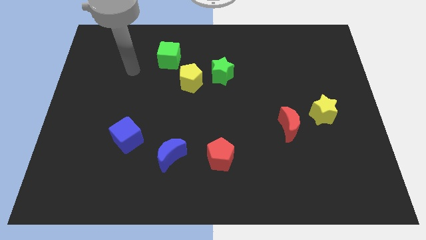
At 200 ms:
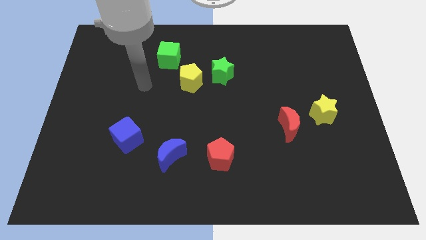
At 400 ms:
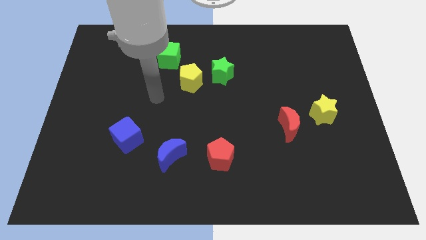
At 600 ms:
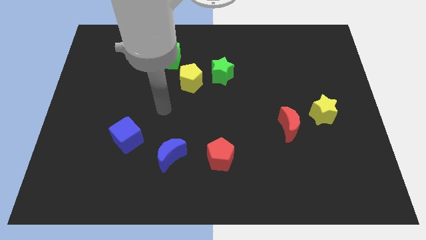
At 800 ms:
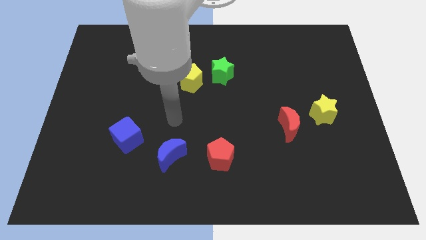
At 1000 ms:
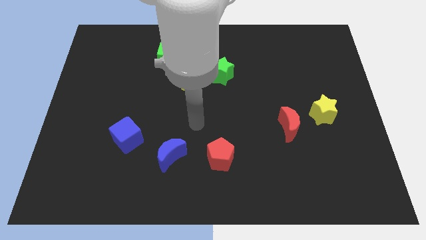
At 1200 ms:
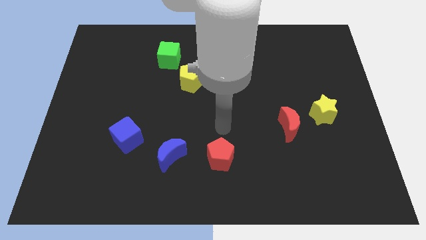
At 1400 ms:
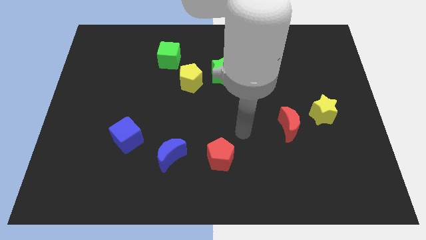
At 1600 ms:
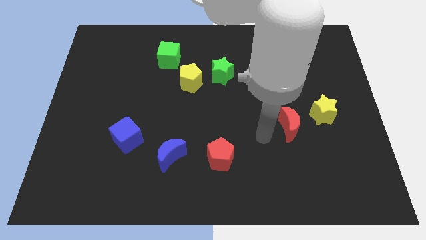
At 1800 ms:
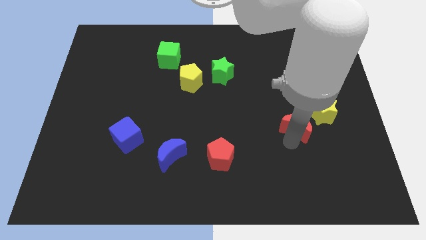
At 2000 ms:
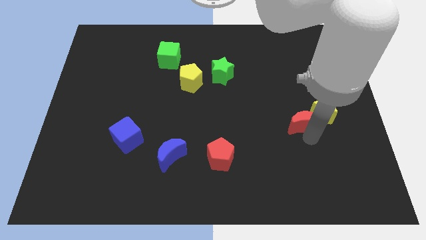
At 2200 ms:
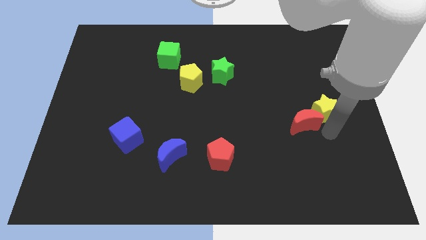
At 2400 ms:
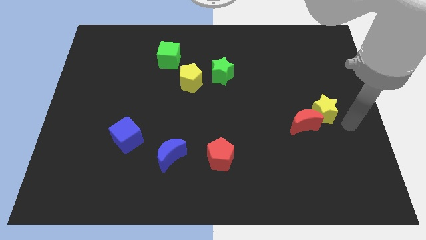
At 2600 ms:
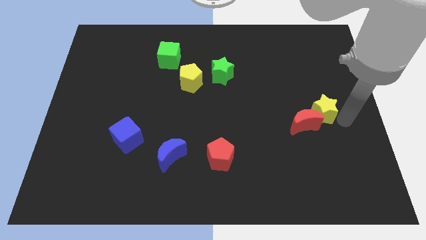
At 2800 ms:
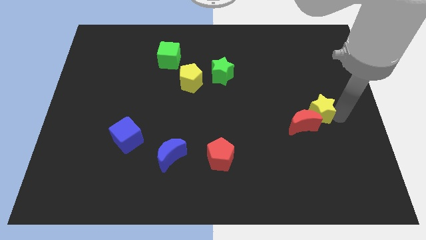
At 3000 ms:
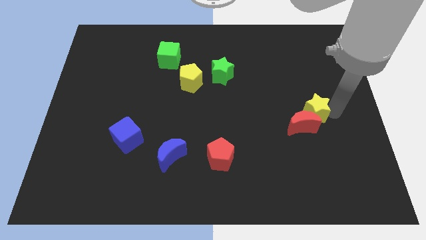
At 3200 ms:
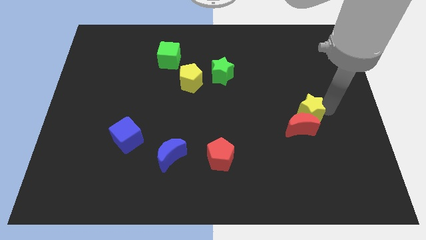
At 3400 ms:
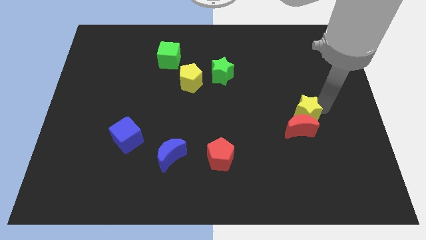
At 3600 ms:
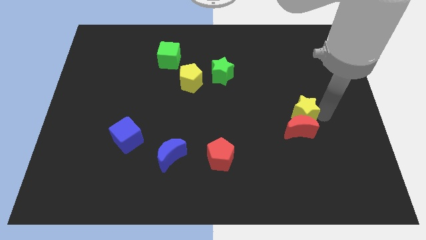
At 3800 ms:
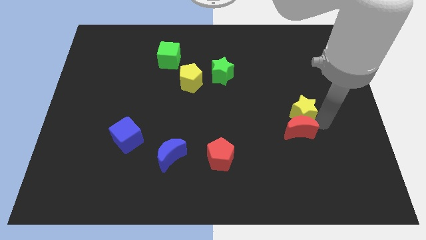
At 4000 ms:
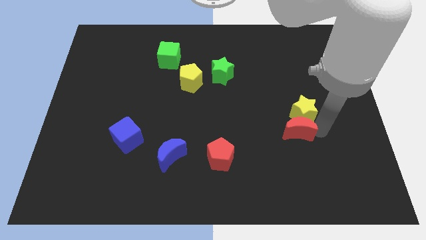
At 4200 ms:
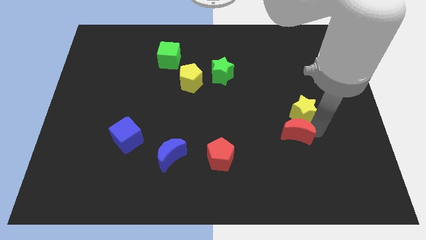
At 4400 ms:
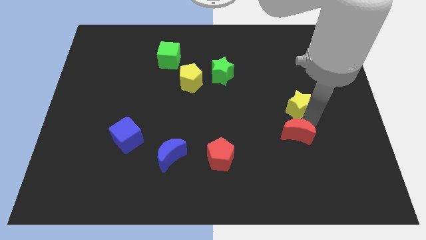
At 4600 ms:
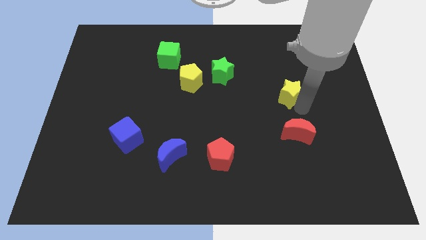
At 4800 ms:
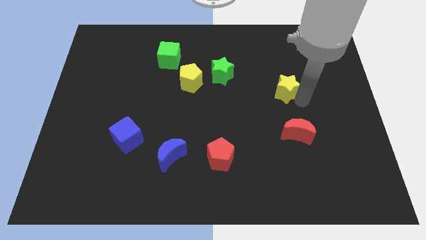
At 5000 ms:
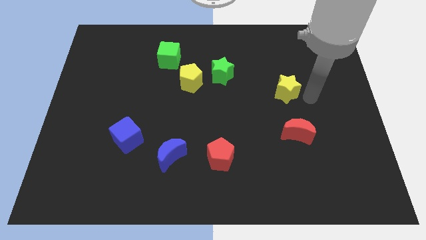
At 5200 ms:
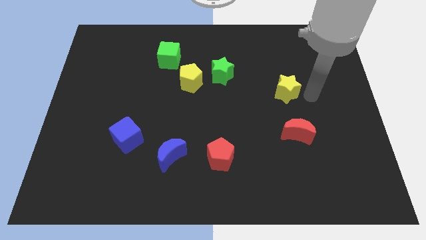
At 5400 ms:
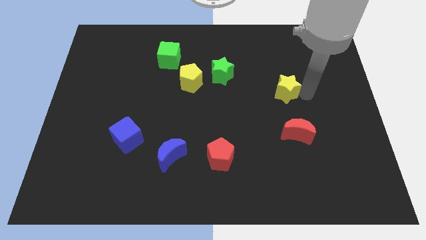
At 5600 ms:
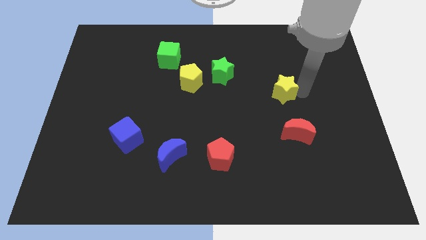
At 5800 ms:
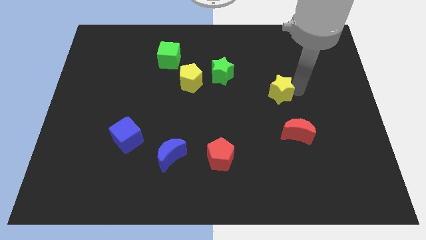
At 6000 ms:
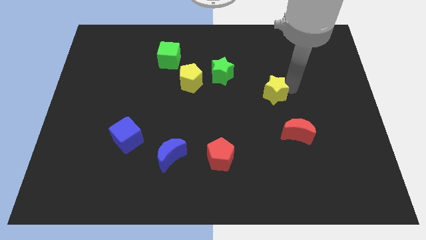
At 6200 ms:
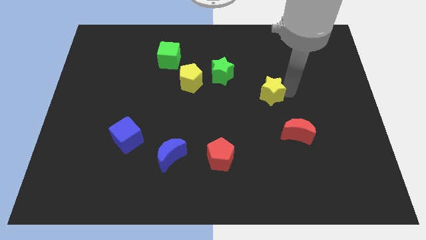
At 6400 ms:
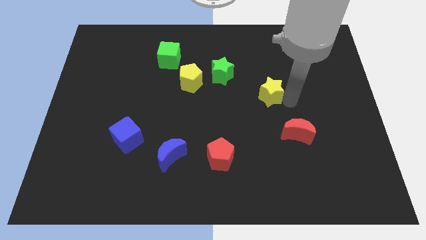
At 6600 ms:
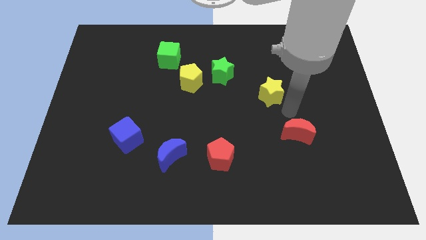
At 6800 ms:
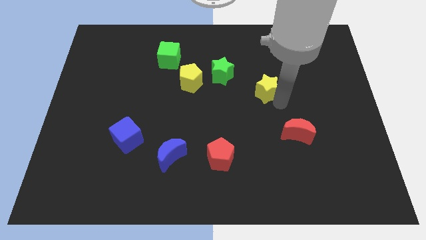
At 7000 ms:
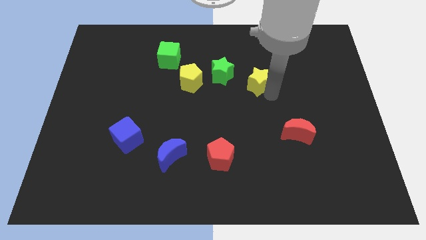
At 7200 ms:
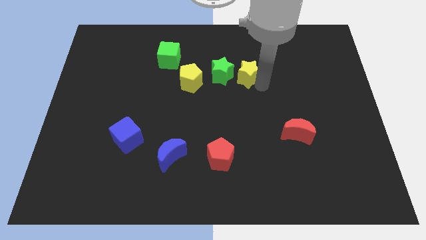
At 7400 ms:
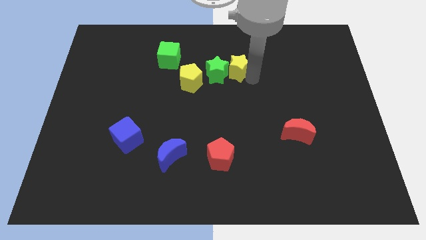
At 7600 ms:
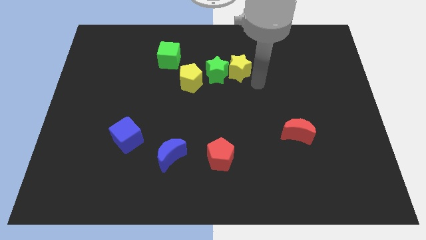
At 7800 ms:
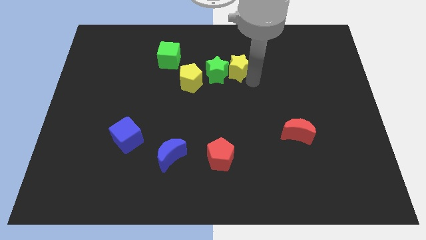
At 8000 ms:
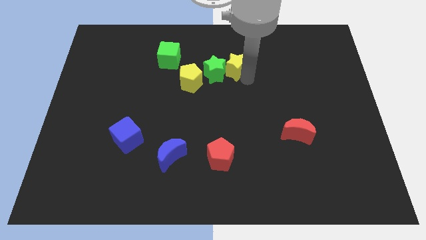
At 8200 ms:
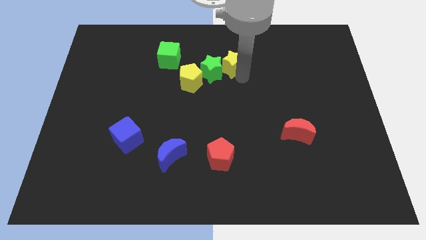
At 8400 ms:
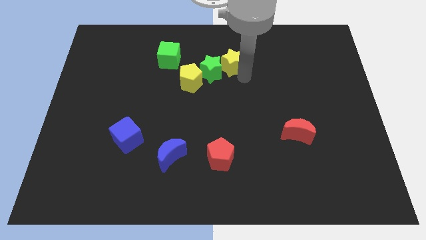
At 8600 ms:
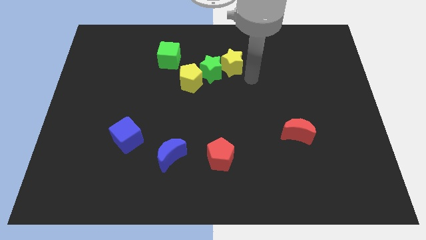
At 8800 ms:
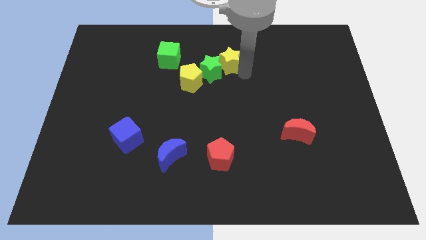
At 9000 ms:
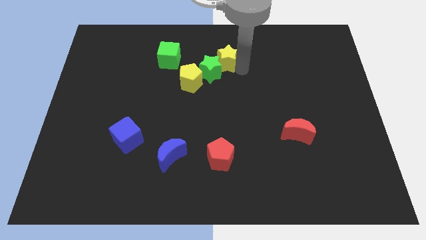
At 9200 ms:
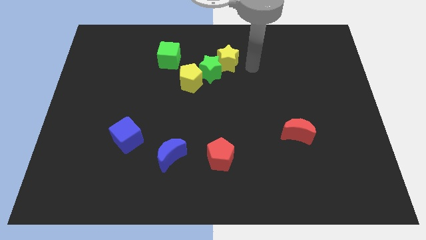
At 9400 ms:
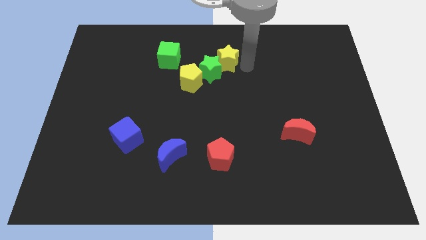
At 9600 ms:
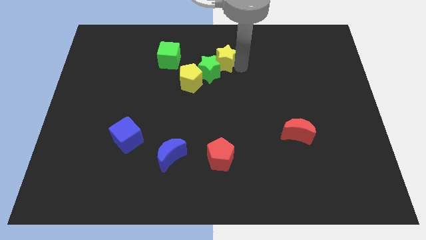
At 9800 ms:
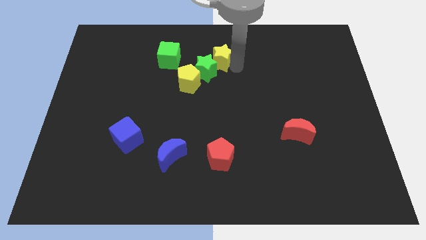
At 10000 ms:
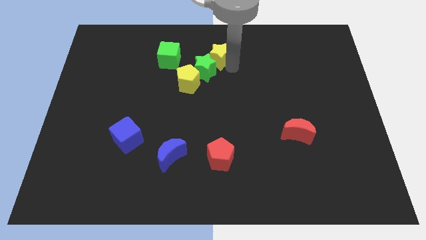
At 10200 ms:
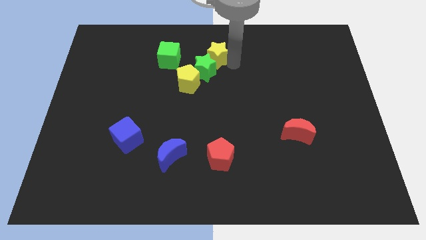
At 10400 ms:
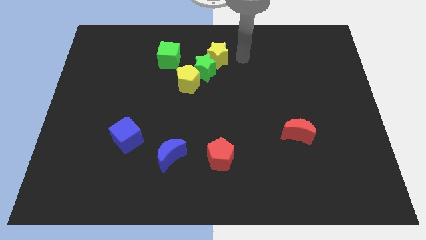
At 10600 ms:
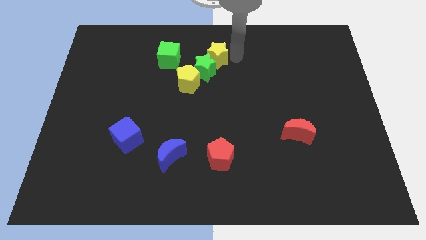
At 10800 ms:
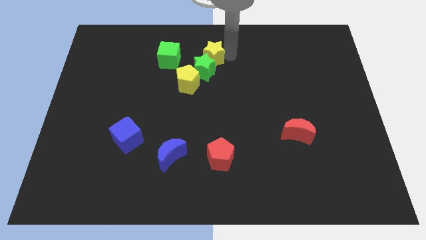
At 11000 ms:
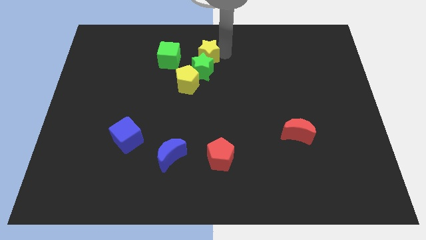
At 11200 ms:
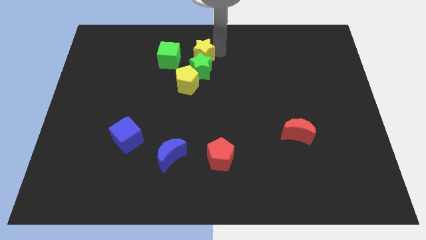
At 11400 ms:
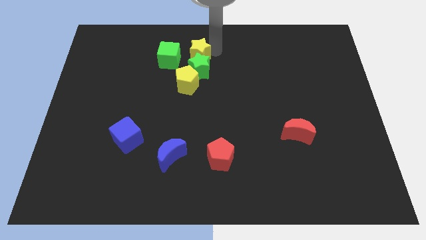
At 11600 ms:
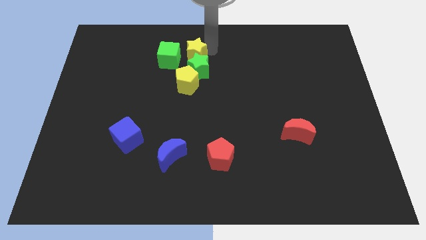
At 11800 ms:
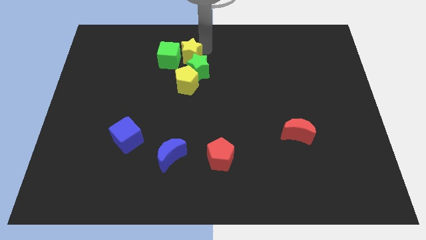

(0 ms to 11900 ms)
slide the yellow star to the green cube

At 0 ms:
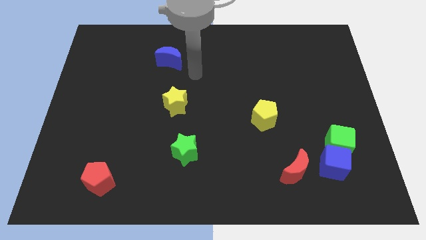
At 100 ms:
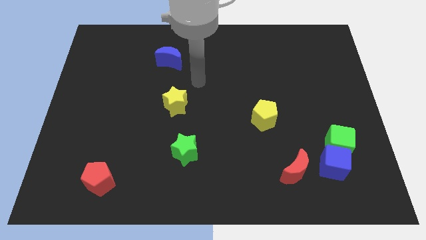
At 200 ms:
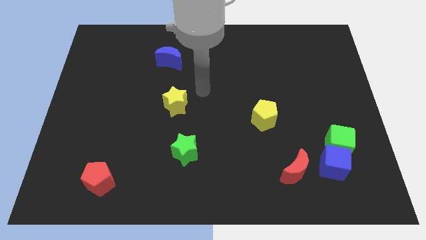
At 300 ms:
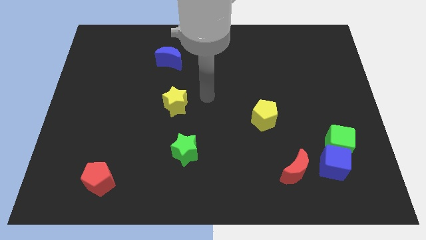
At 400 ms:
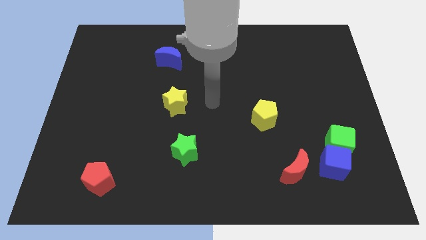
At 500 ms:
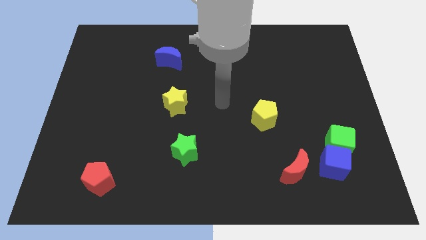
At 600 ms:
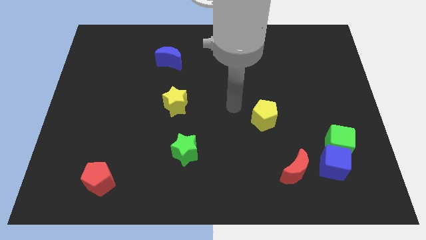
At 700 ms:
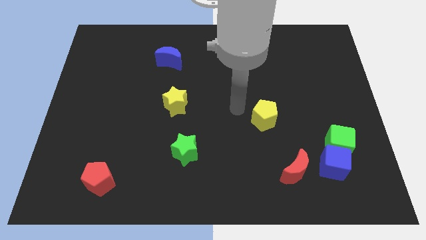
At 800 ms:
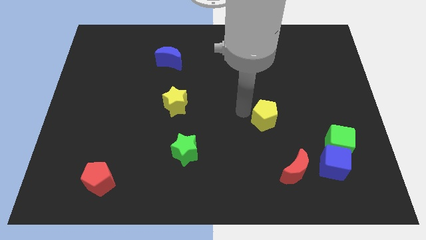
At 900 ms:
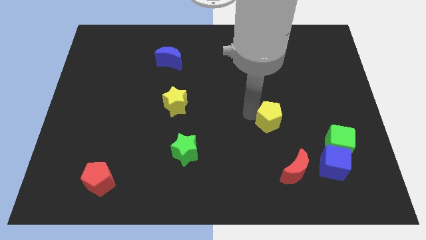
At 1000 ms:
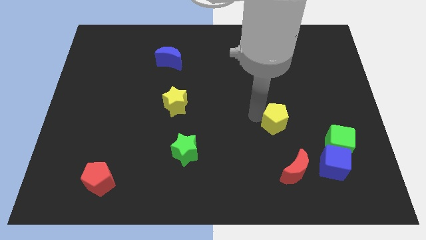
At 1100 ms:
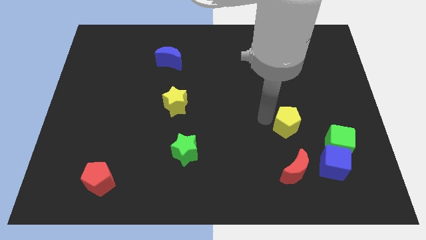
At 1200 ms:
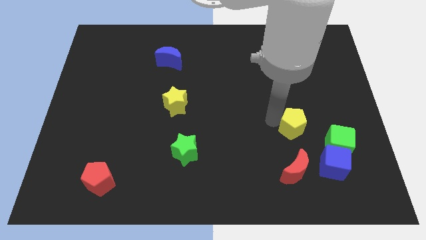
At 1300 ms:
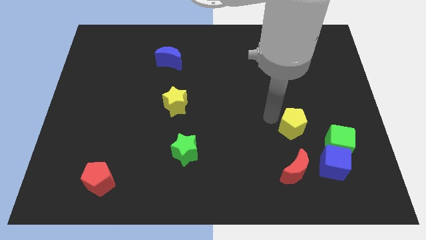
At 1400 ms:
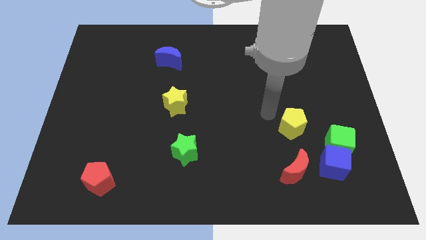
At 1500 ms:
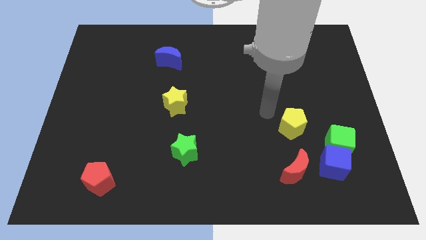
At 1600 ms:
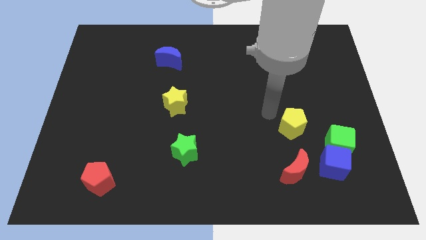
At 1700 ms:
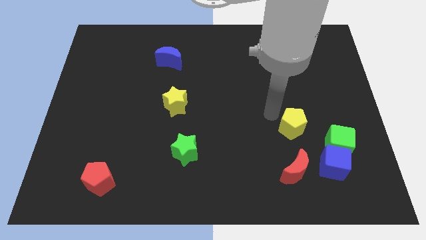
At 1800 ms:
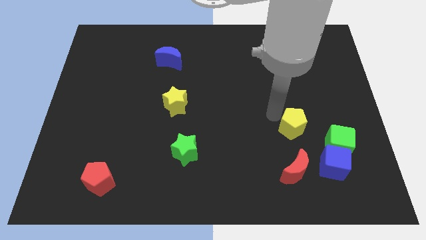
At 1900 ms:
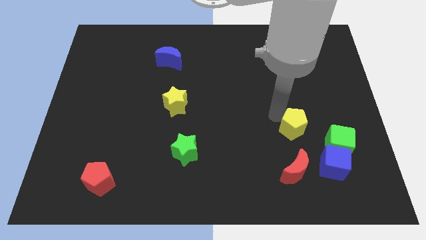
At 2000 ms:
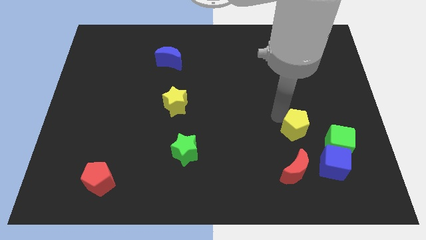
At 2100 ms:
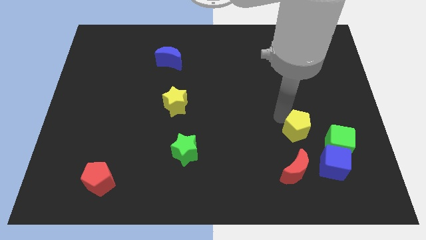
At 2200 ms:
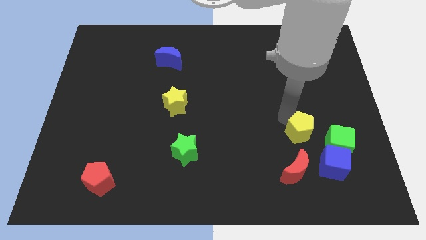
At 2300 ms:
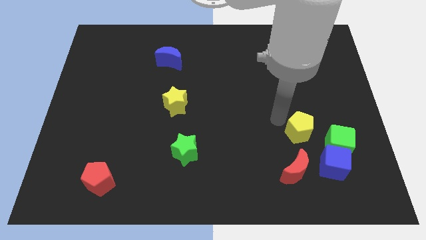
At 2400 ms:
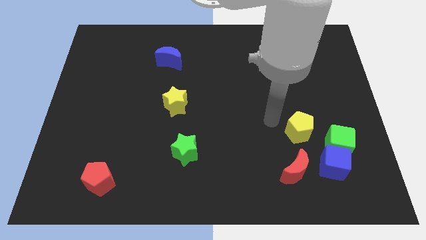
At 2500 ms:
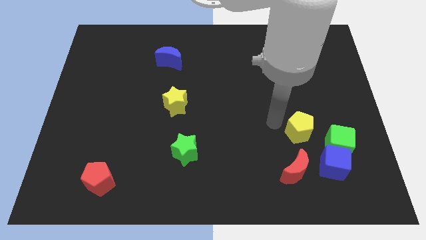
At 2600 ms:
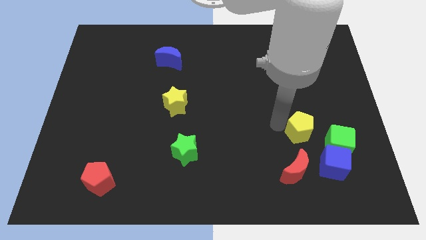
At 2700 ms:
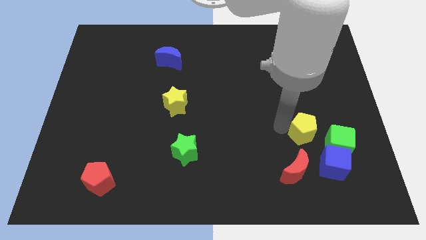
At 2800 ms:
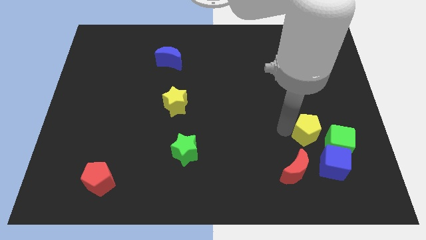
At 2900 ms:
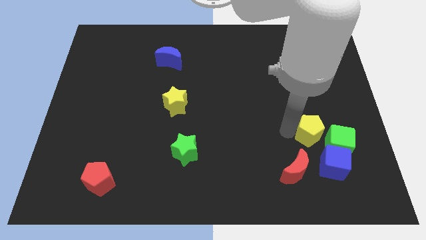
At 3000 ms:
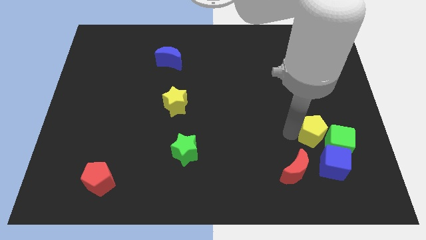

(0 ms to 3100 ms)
move the yellow pentagon to the green cube
